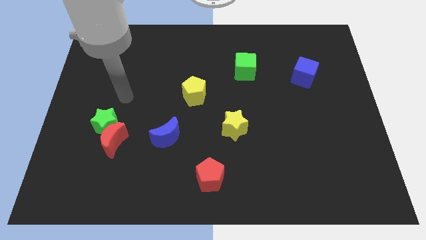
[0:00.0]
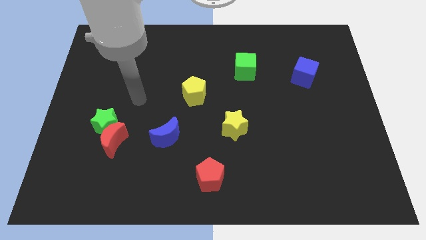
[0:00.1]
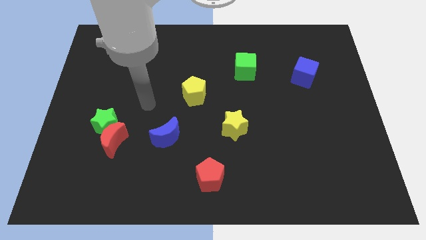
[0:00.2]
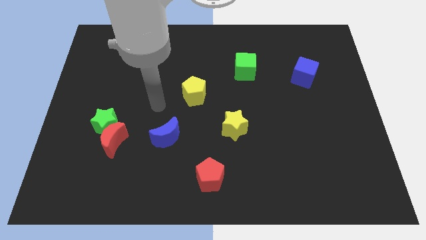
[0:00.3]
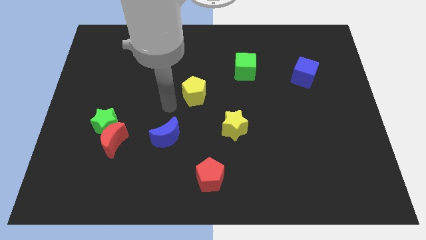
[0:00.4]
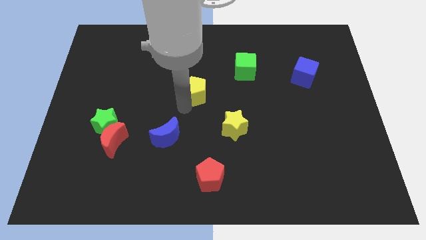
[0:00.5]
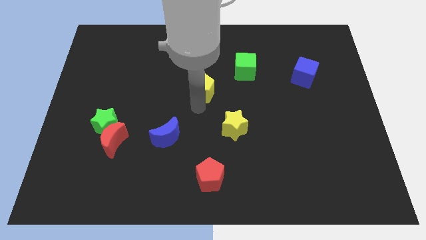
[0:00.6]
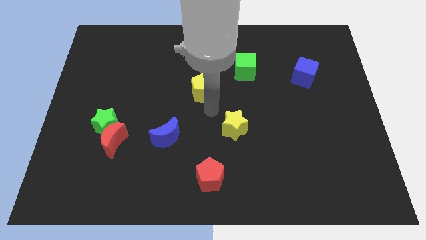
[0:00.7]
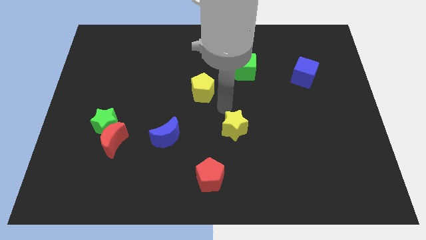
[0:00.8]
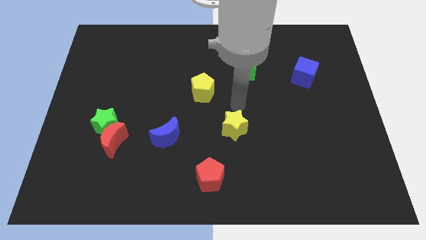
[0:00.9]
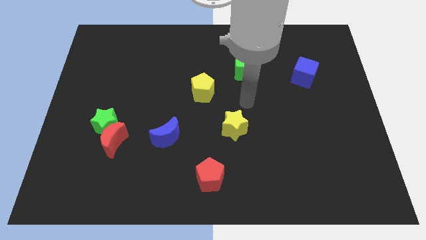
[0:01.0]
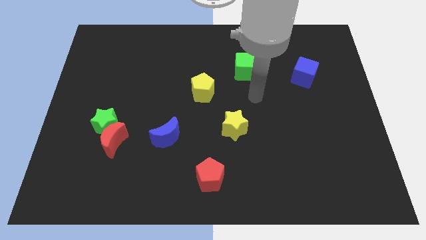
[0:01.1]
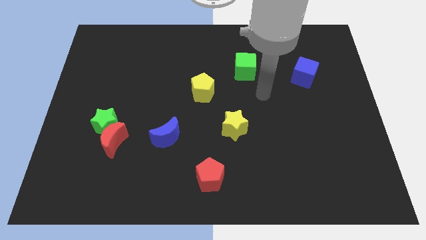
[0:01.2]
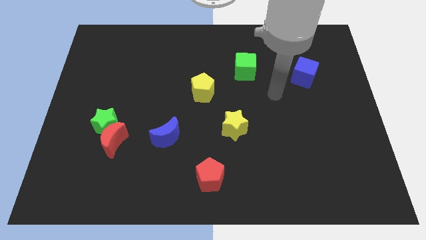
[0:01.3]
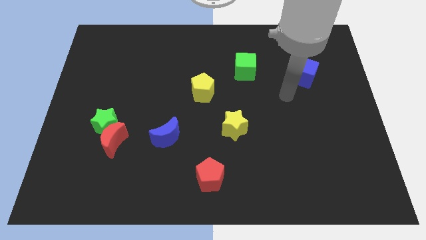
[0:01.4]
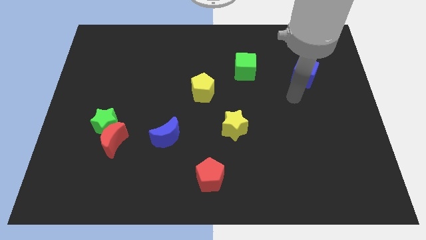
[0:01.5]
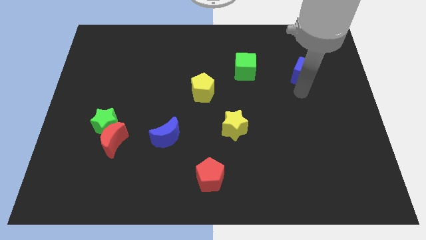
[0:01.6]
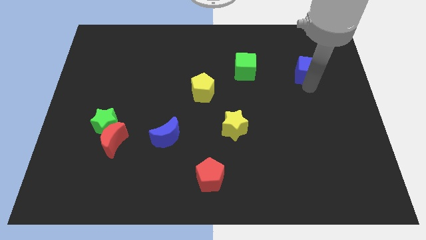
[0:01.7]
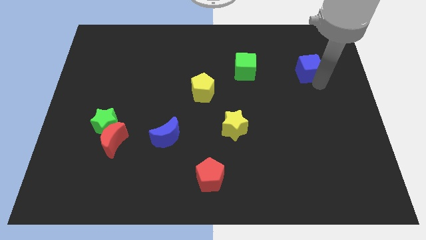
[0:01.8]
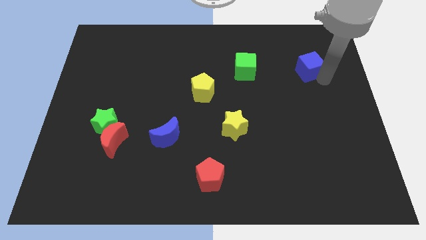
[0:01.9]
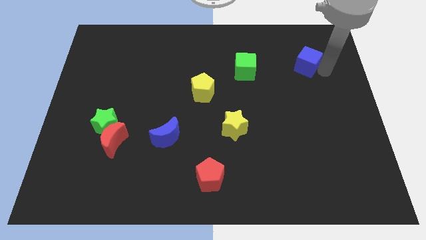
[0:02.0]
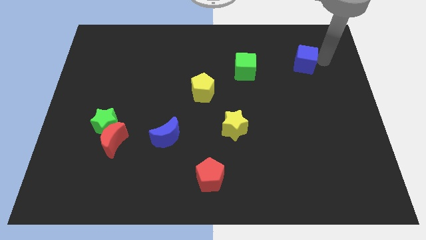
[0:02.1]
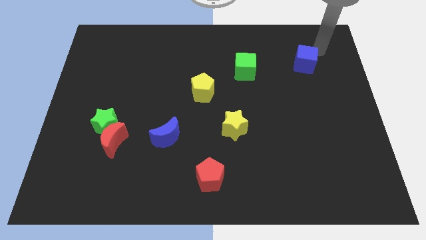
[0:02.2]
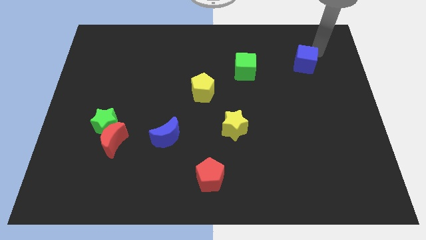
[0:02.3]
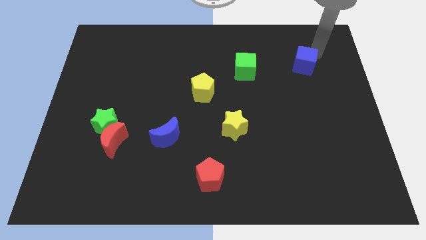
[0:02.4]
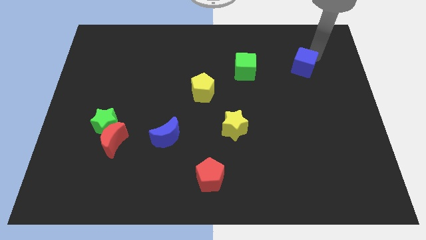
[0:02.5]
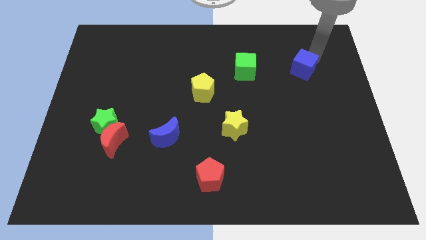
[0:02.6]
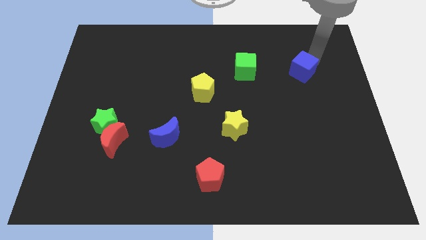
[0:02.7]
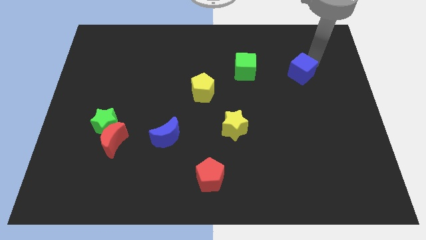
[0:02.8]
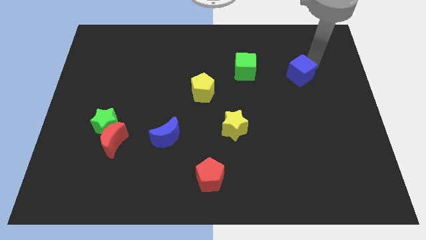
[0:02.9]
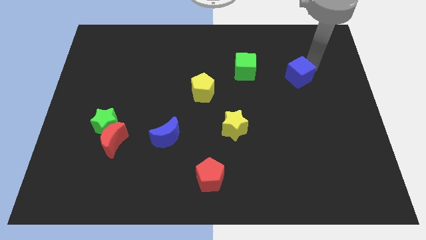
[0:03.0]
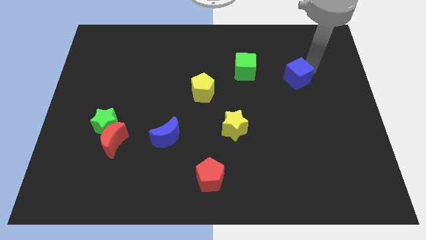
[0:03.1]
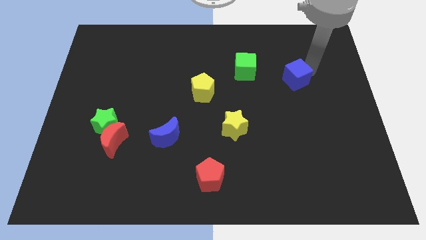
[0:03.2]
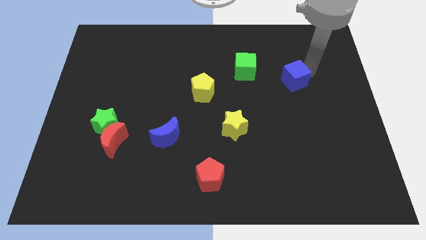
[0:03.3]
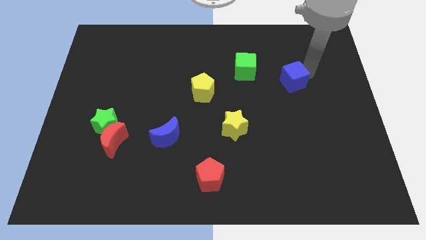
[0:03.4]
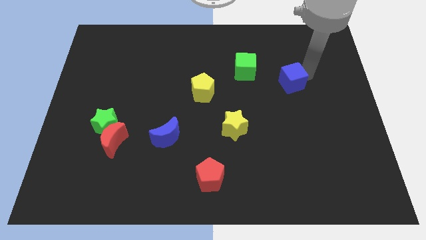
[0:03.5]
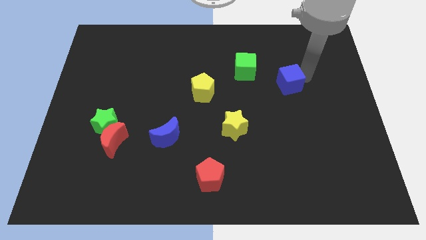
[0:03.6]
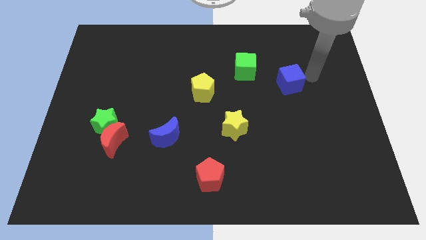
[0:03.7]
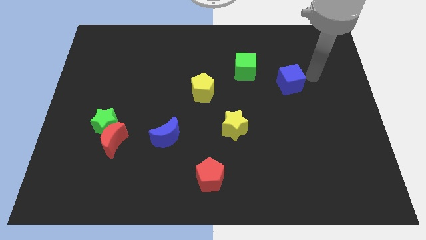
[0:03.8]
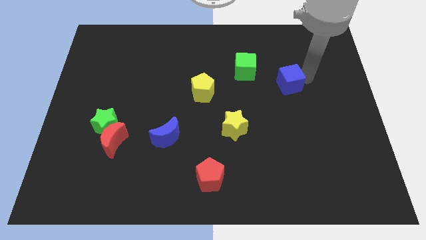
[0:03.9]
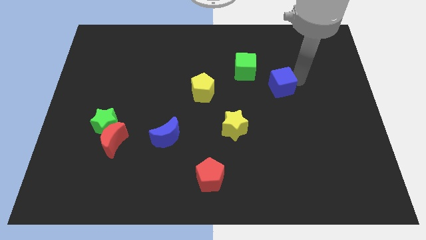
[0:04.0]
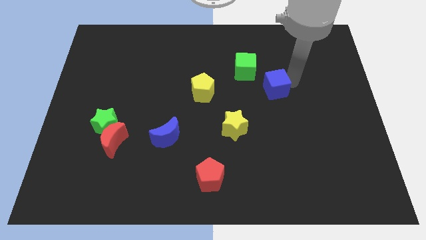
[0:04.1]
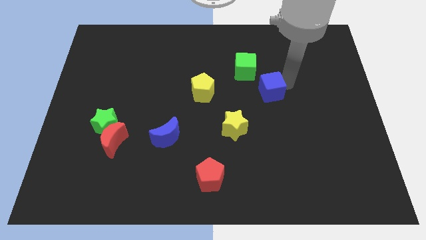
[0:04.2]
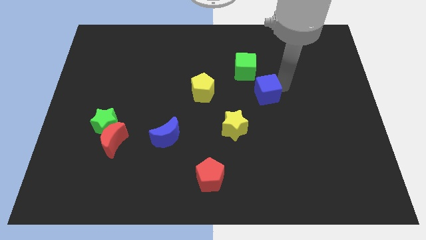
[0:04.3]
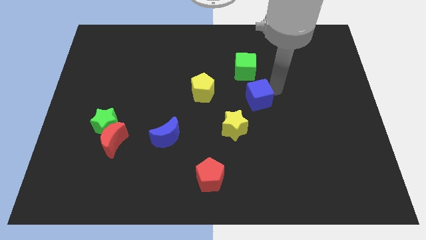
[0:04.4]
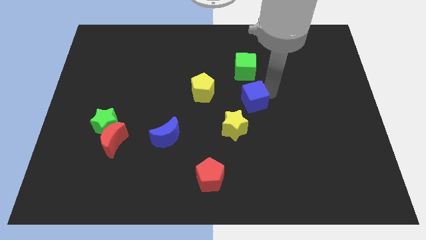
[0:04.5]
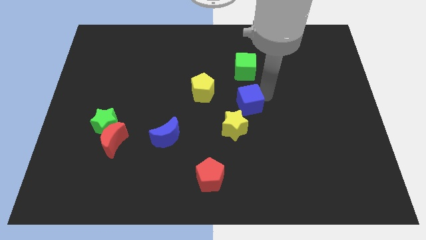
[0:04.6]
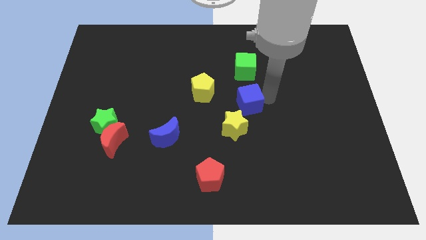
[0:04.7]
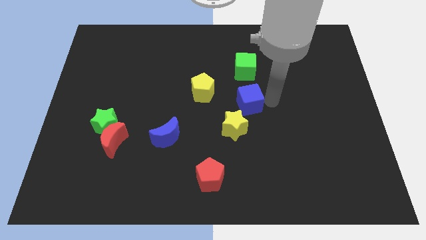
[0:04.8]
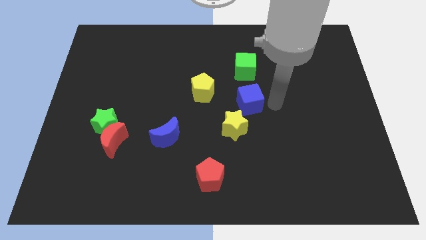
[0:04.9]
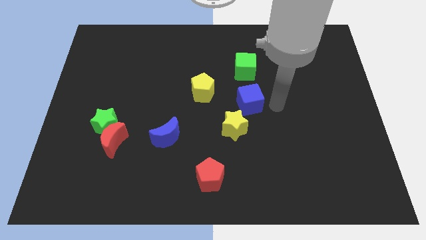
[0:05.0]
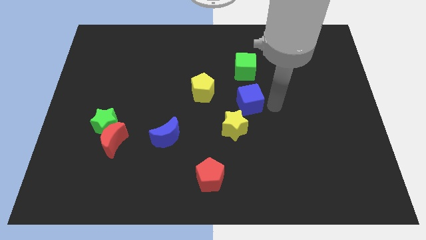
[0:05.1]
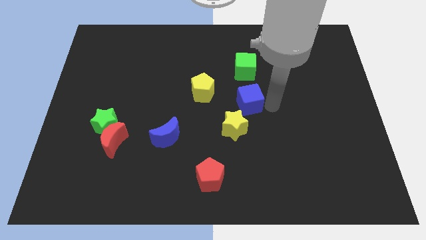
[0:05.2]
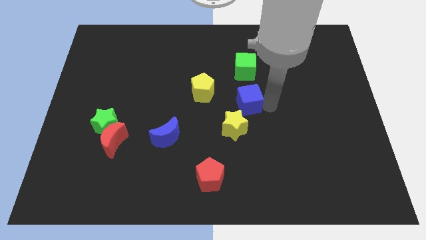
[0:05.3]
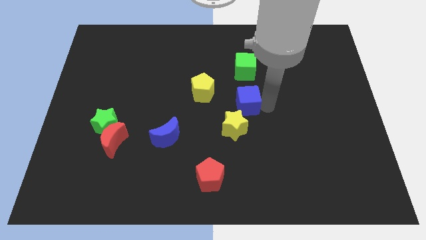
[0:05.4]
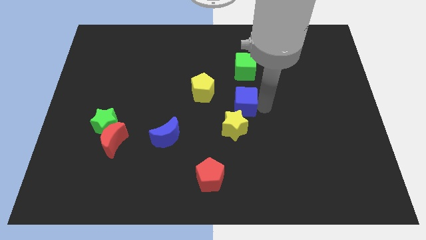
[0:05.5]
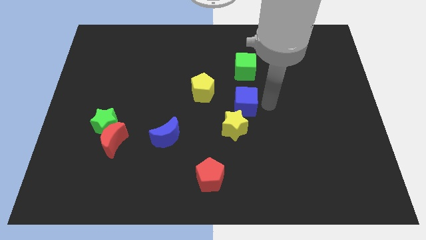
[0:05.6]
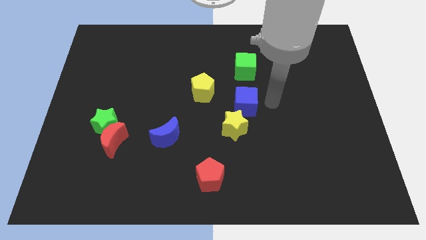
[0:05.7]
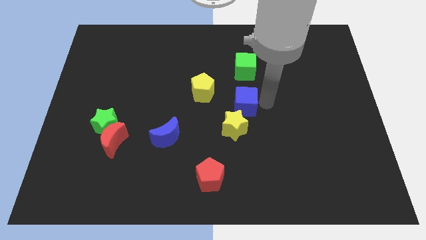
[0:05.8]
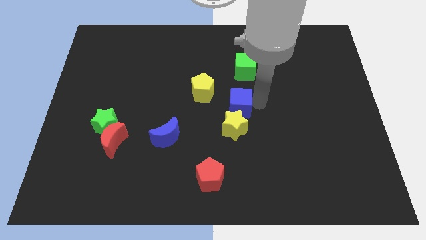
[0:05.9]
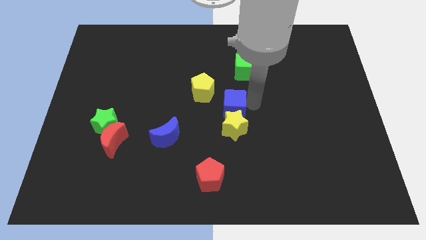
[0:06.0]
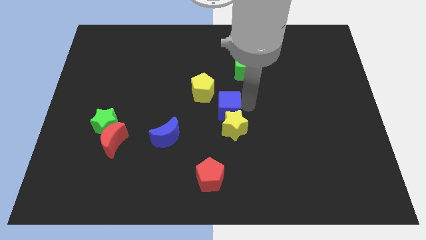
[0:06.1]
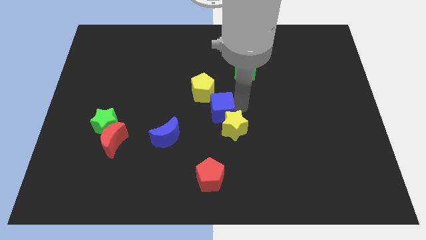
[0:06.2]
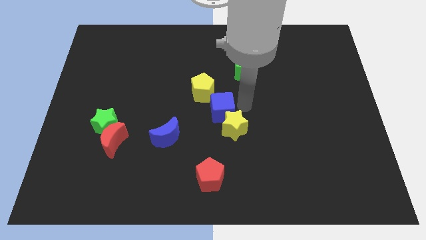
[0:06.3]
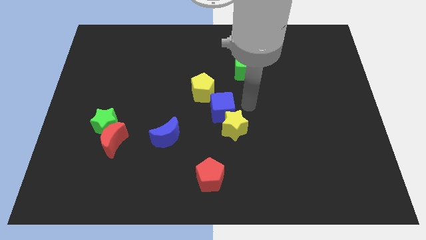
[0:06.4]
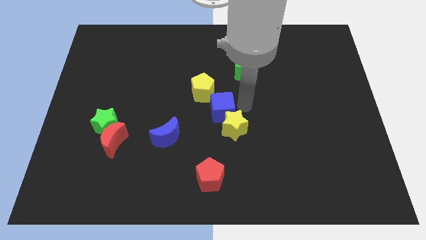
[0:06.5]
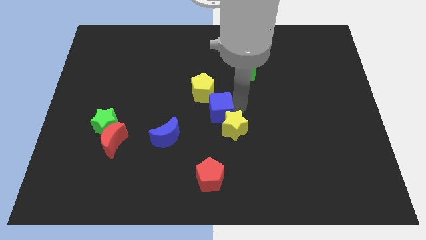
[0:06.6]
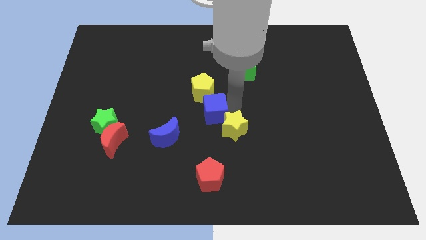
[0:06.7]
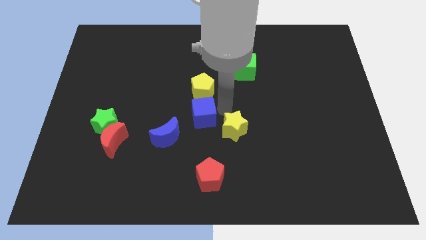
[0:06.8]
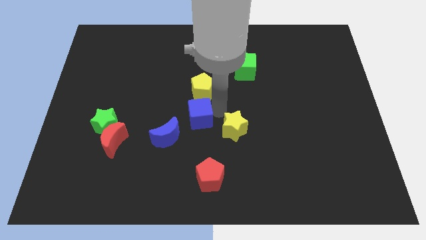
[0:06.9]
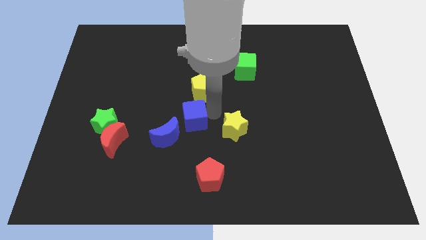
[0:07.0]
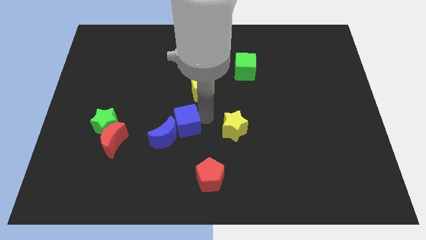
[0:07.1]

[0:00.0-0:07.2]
move the blue cube above the blue moon
